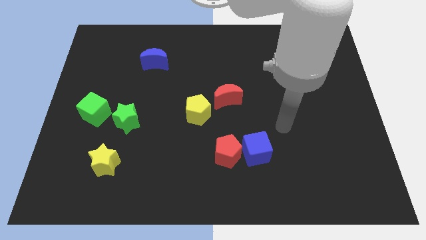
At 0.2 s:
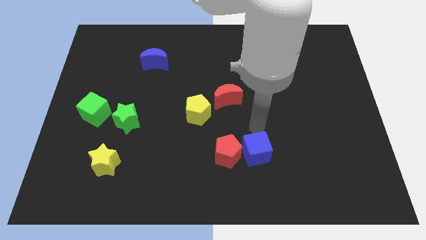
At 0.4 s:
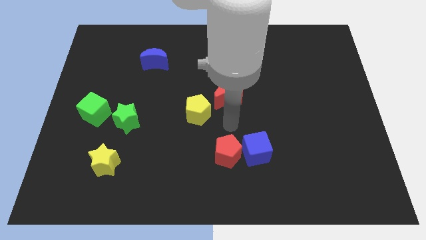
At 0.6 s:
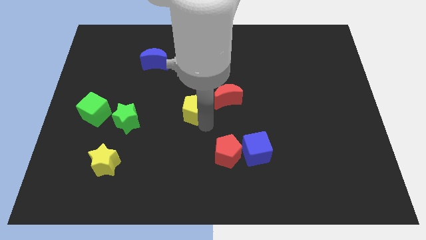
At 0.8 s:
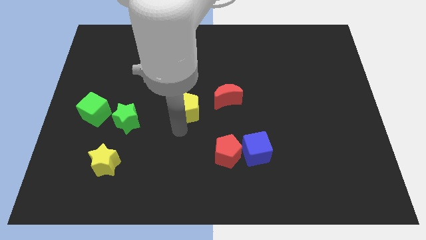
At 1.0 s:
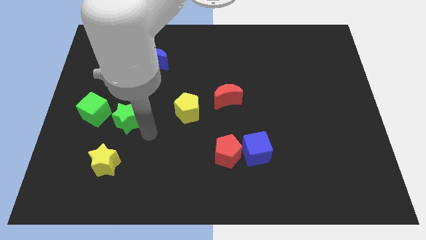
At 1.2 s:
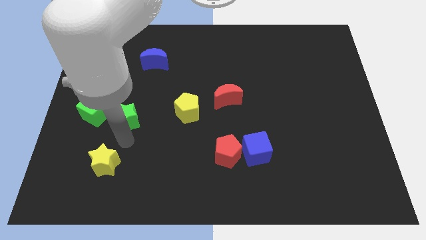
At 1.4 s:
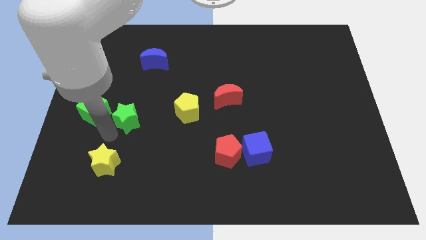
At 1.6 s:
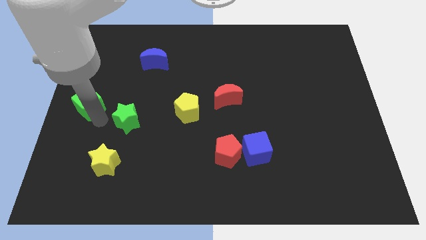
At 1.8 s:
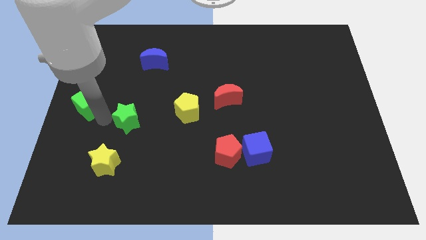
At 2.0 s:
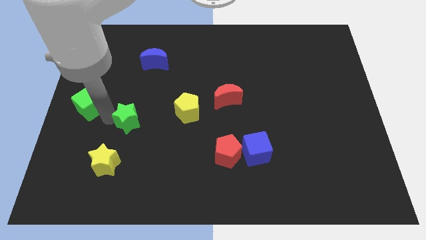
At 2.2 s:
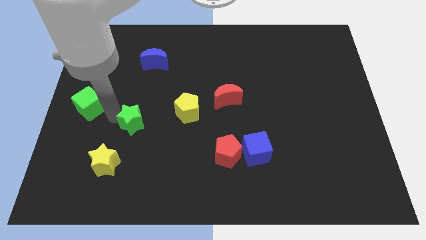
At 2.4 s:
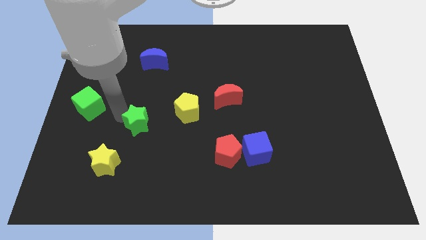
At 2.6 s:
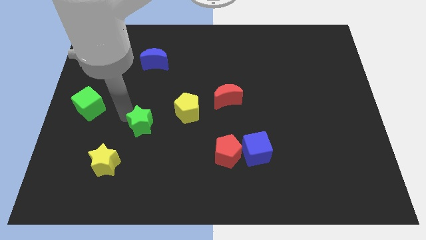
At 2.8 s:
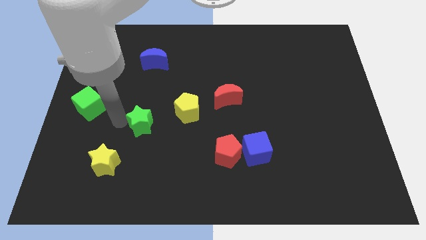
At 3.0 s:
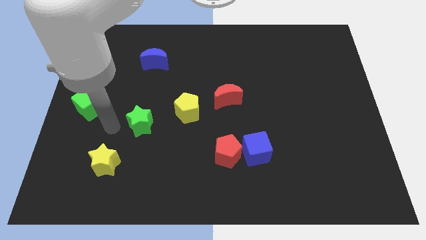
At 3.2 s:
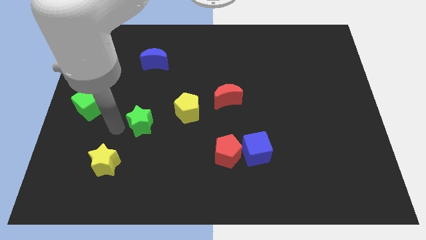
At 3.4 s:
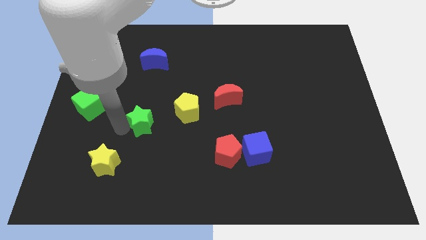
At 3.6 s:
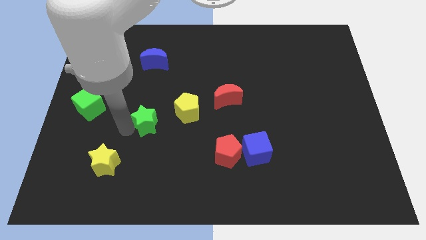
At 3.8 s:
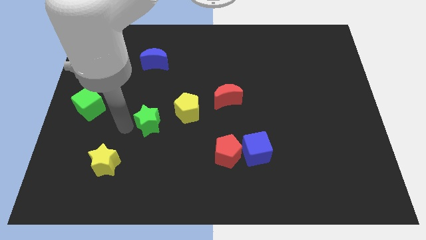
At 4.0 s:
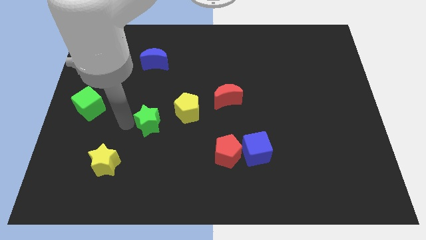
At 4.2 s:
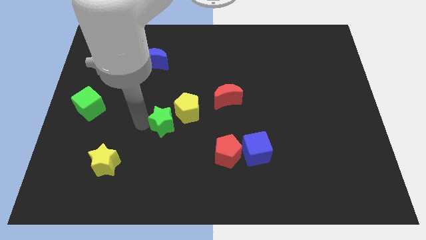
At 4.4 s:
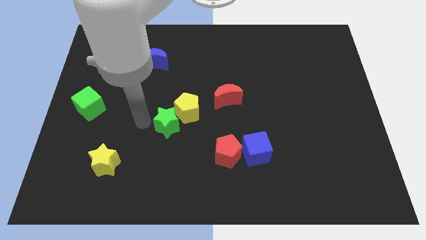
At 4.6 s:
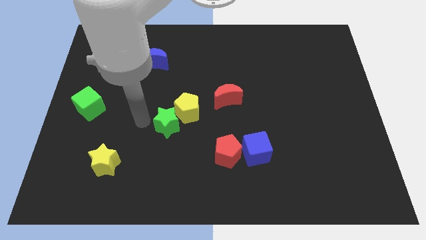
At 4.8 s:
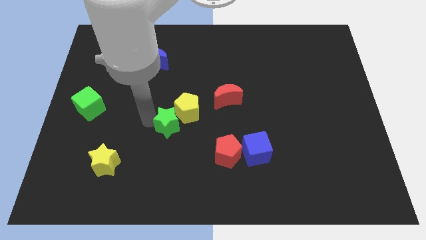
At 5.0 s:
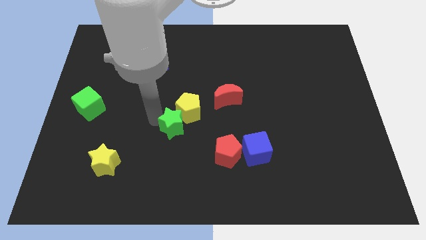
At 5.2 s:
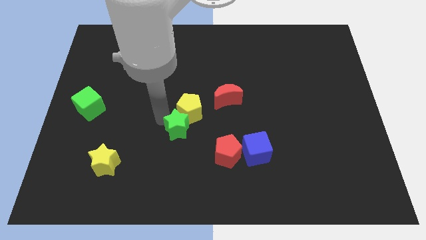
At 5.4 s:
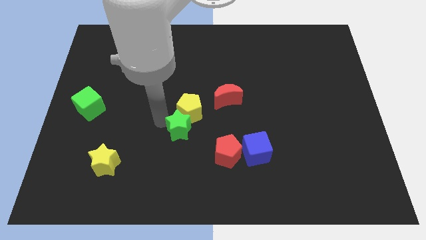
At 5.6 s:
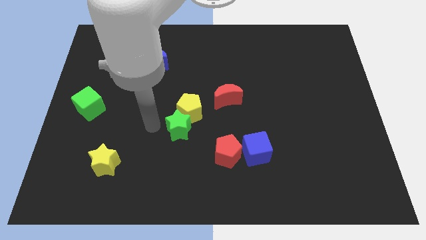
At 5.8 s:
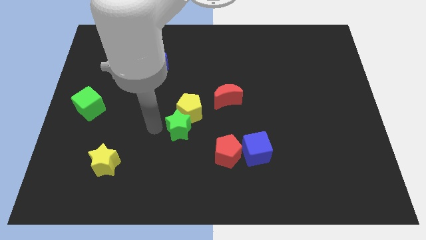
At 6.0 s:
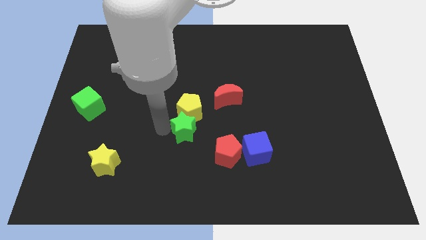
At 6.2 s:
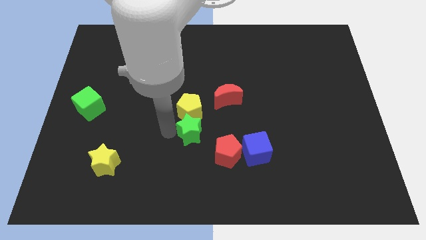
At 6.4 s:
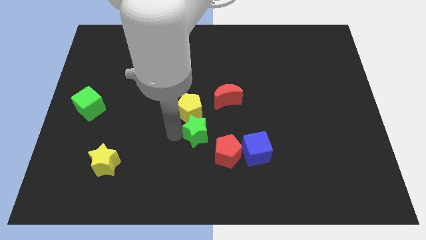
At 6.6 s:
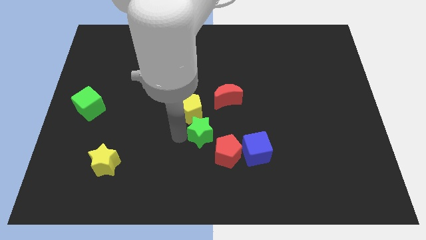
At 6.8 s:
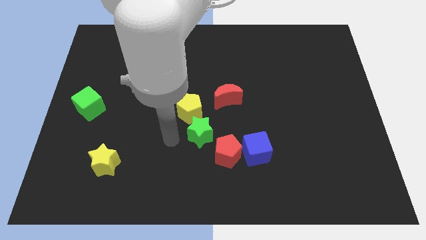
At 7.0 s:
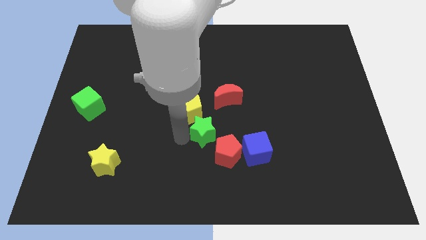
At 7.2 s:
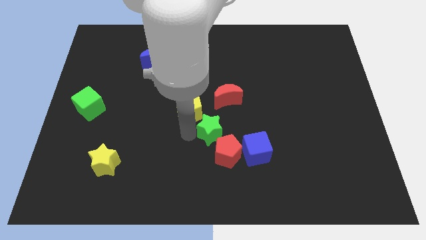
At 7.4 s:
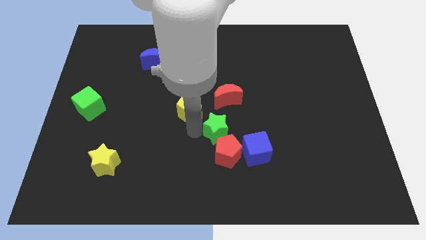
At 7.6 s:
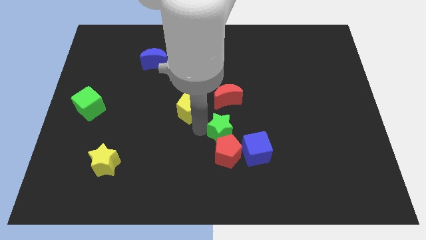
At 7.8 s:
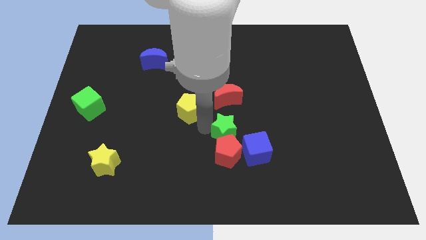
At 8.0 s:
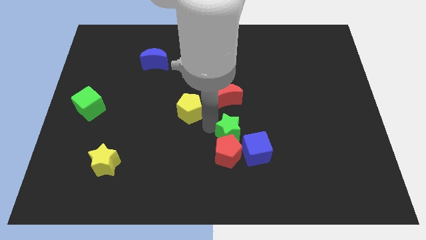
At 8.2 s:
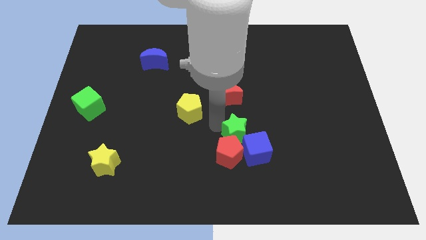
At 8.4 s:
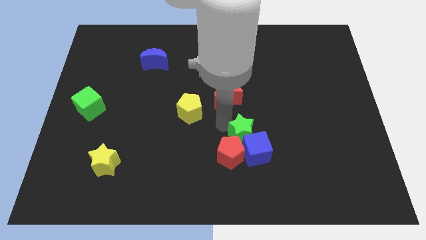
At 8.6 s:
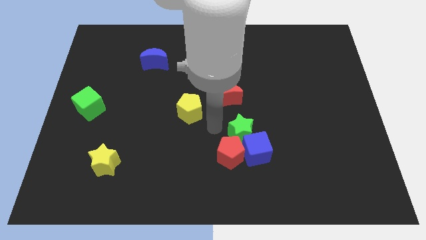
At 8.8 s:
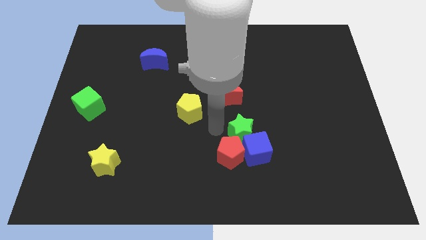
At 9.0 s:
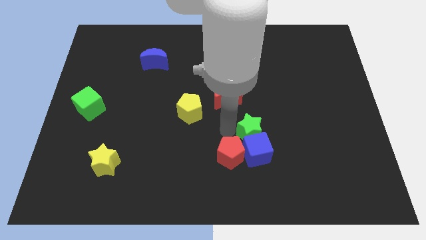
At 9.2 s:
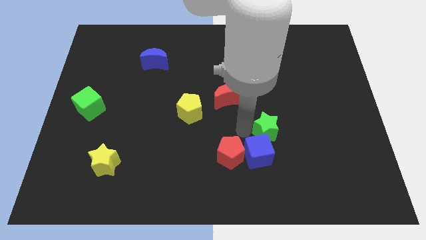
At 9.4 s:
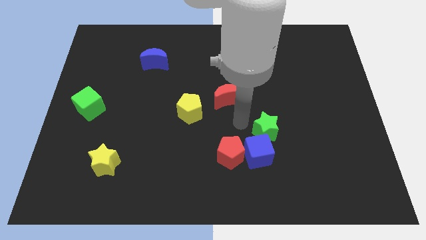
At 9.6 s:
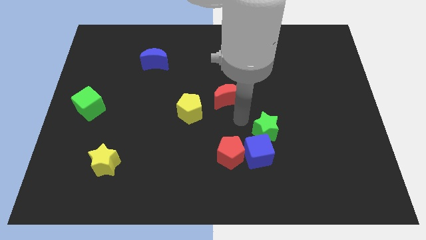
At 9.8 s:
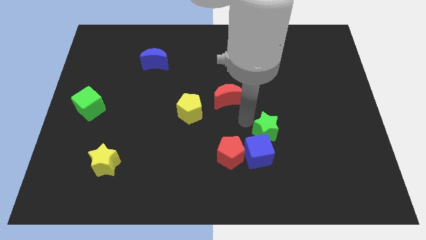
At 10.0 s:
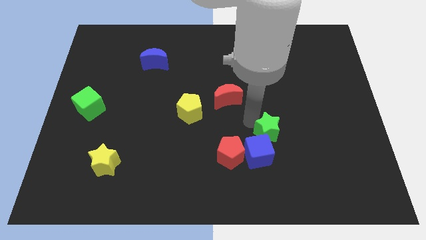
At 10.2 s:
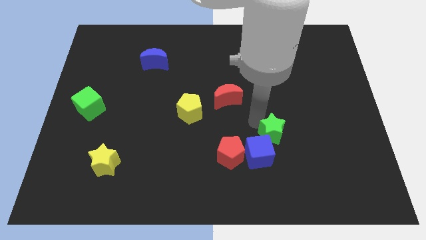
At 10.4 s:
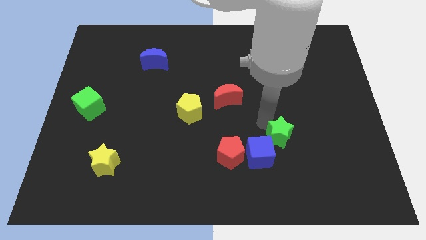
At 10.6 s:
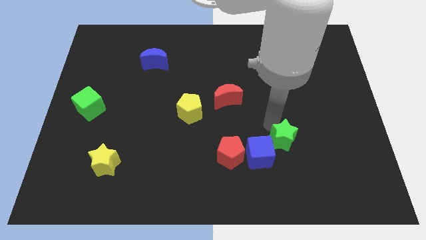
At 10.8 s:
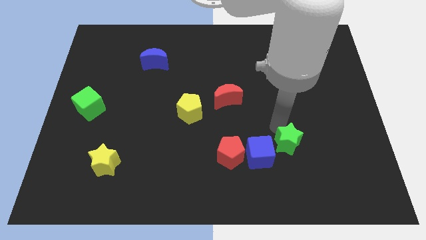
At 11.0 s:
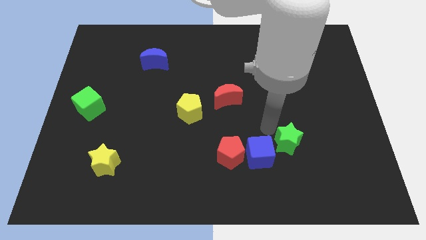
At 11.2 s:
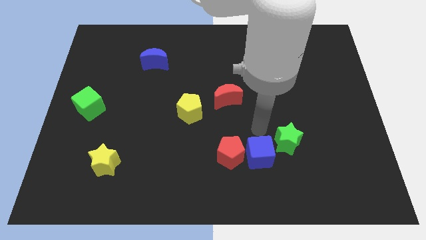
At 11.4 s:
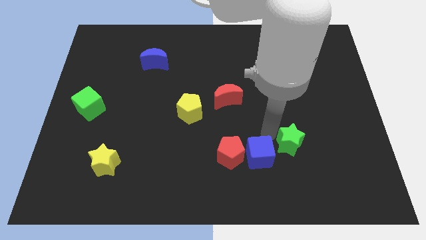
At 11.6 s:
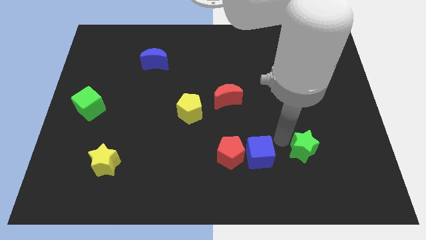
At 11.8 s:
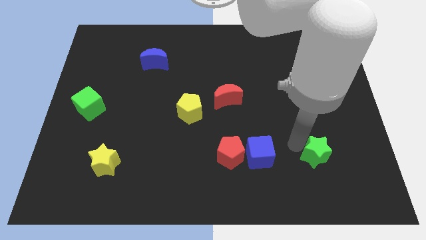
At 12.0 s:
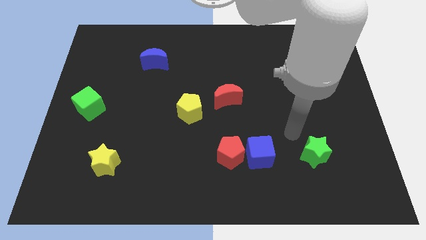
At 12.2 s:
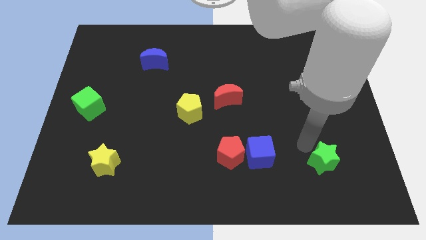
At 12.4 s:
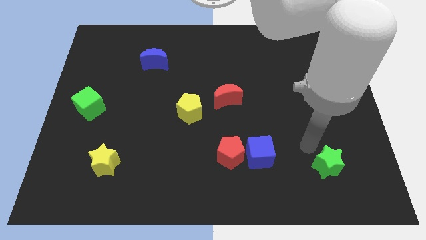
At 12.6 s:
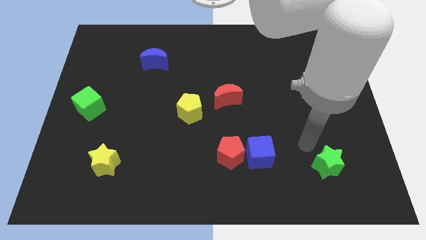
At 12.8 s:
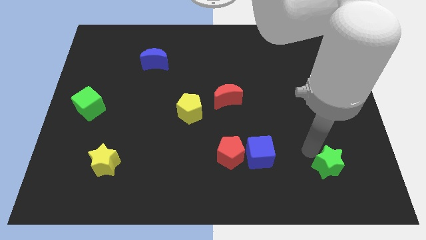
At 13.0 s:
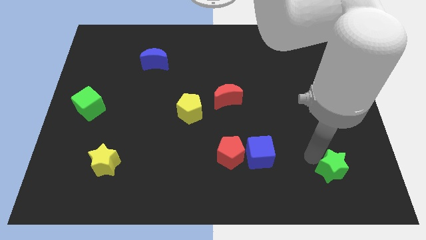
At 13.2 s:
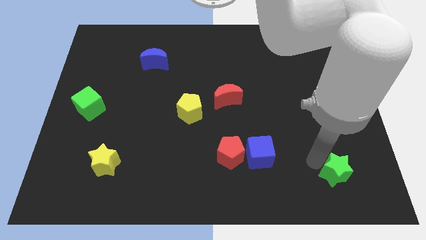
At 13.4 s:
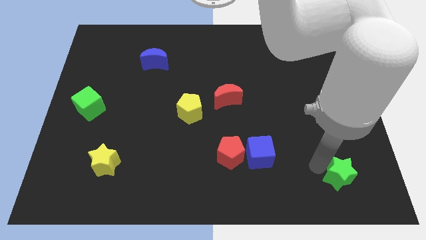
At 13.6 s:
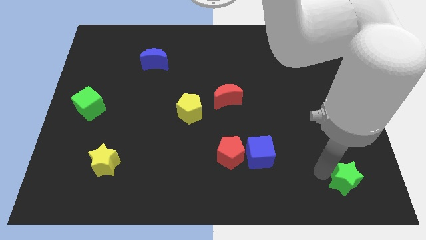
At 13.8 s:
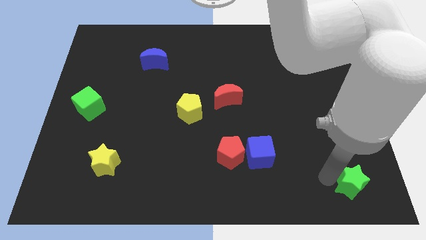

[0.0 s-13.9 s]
move the green star to the bottom right corner
